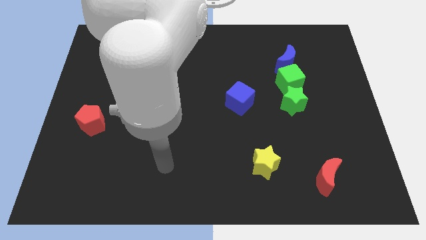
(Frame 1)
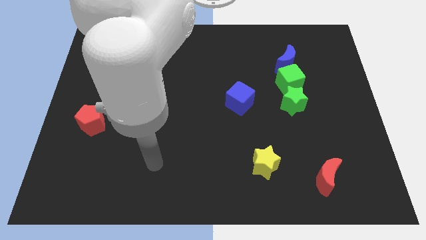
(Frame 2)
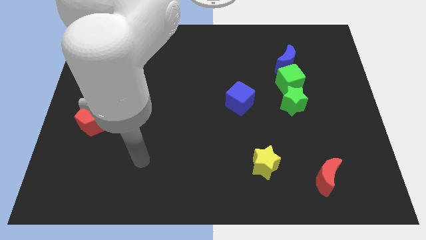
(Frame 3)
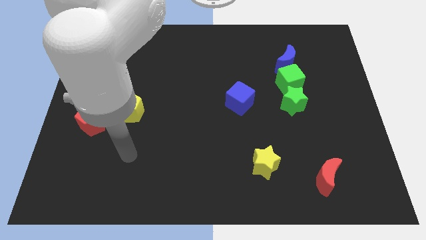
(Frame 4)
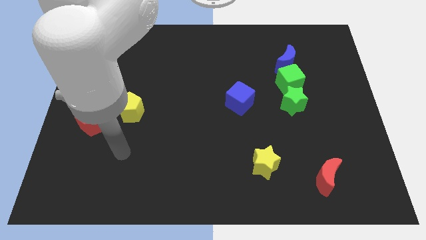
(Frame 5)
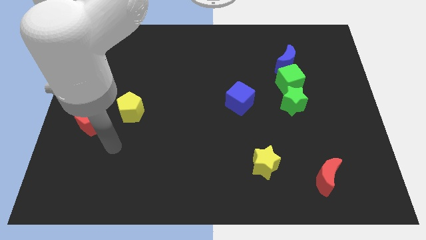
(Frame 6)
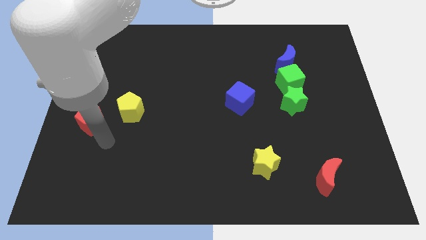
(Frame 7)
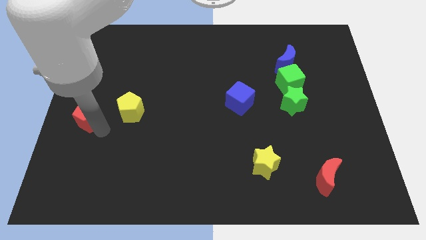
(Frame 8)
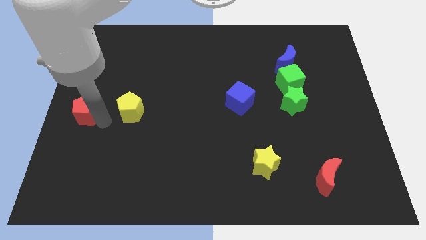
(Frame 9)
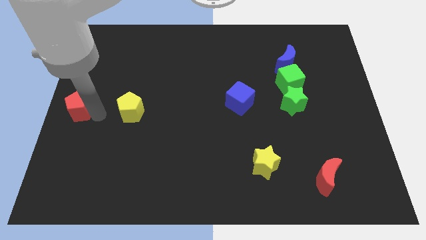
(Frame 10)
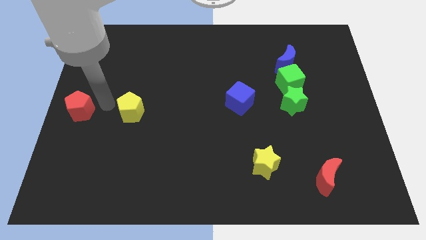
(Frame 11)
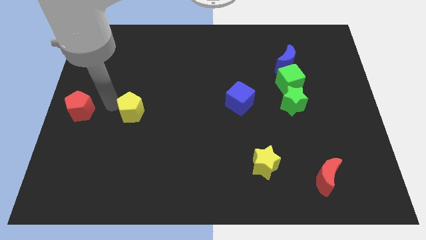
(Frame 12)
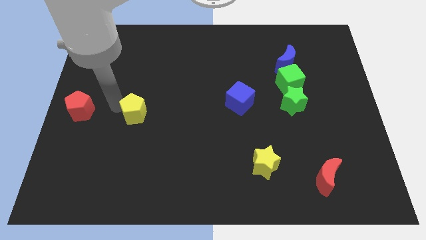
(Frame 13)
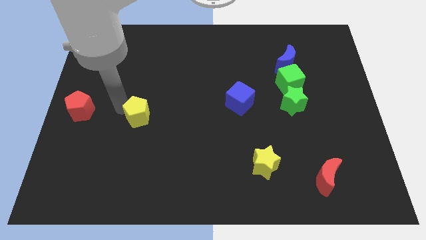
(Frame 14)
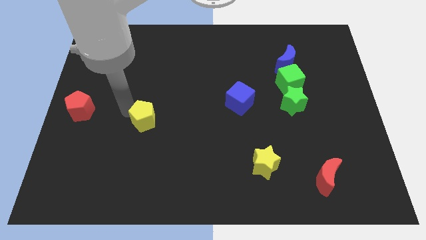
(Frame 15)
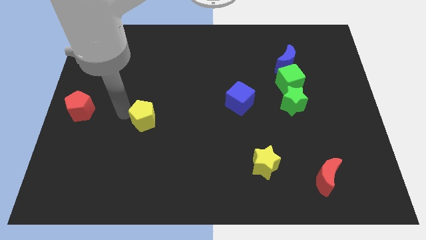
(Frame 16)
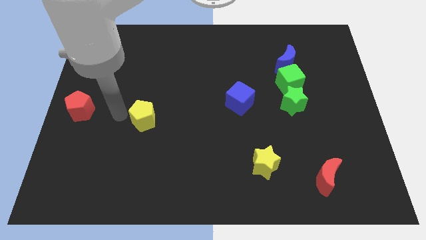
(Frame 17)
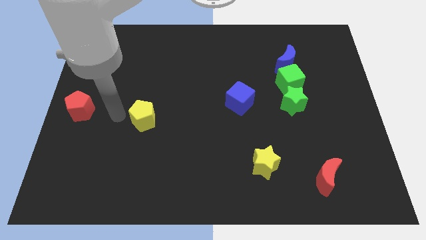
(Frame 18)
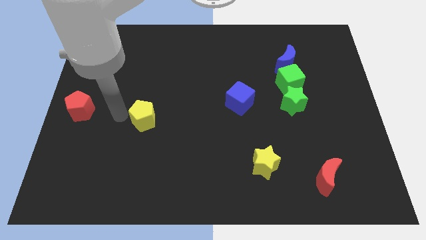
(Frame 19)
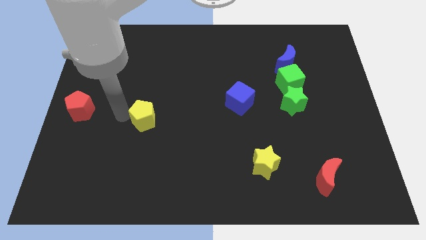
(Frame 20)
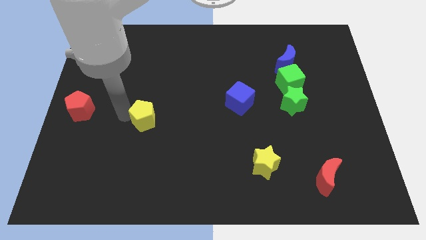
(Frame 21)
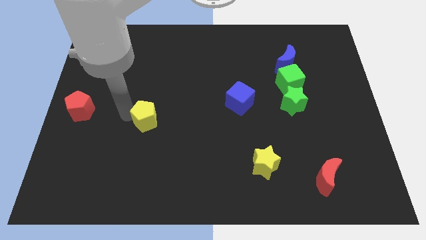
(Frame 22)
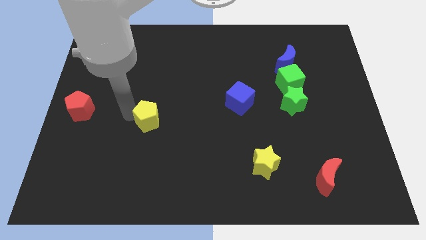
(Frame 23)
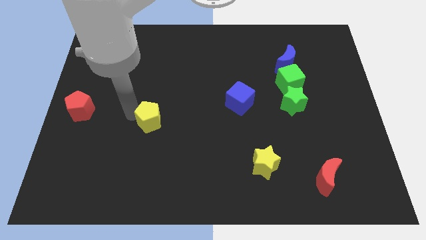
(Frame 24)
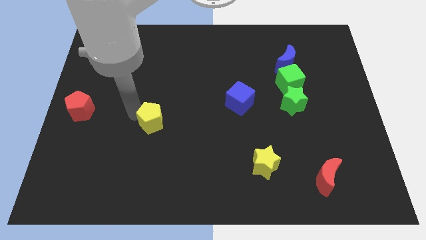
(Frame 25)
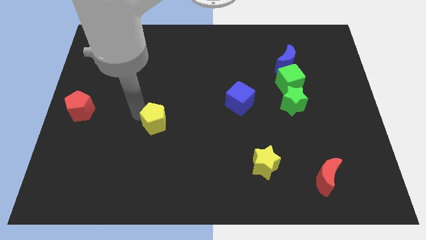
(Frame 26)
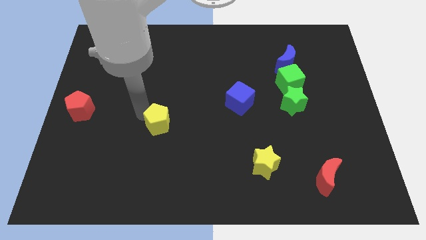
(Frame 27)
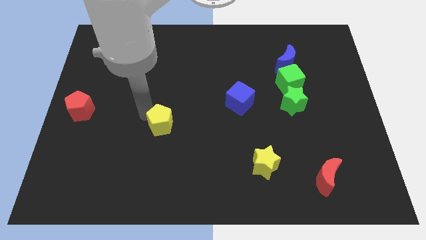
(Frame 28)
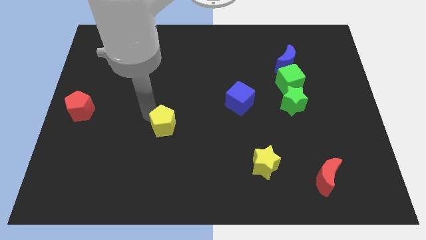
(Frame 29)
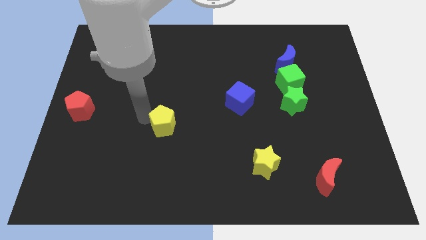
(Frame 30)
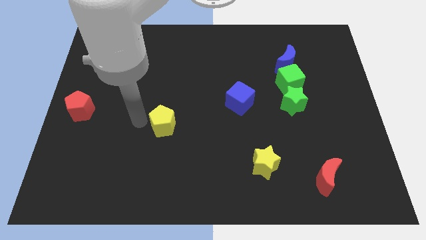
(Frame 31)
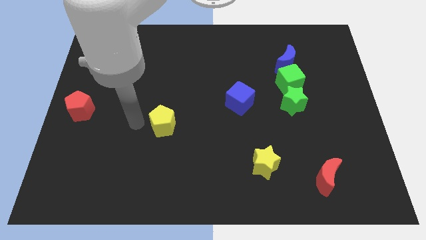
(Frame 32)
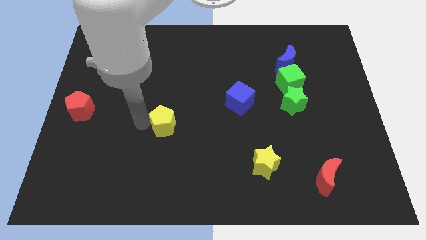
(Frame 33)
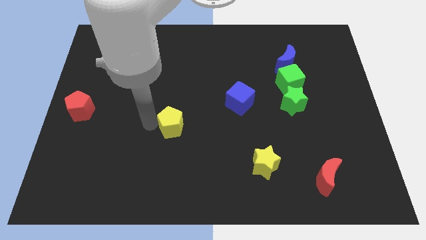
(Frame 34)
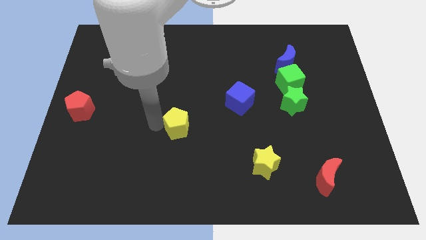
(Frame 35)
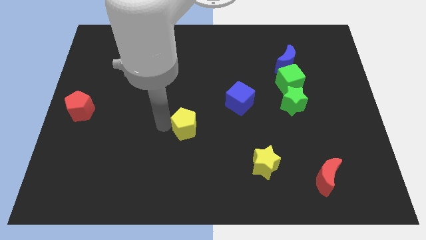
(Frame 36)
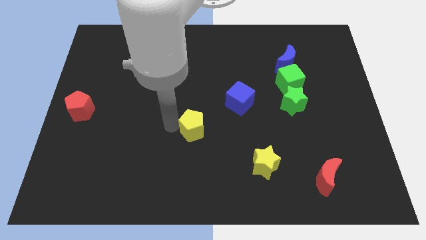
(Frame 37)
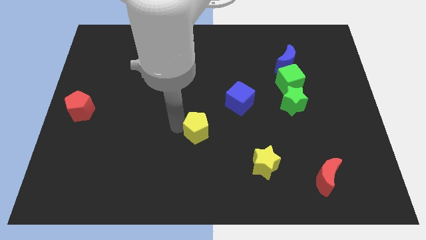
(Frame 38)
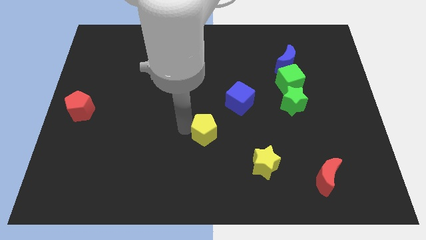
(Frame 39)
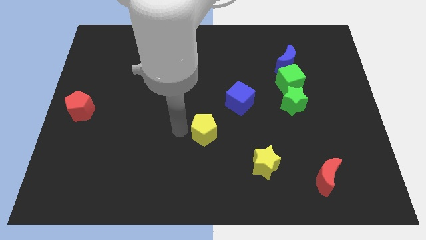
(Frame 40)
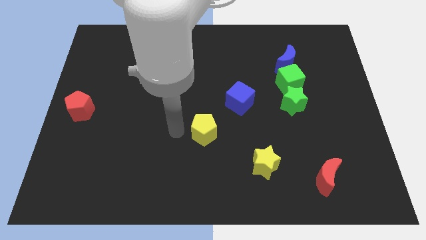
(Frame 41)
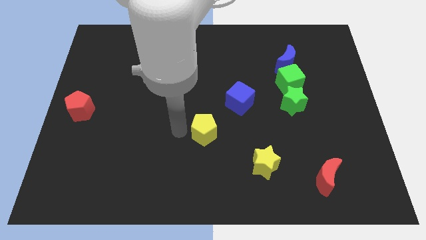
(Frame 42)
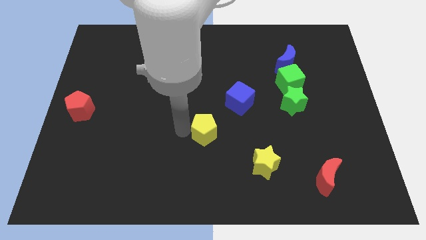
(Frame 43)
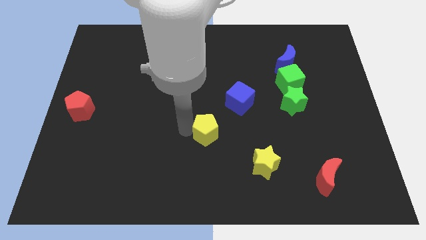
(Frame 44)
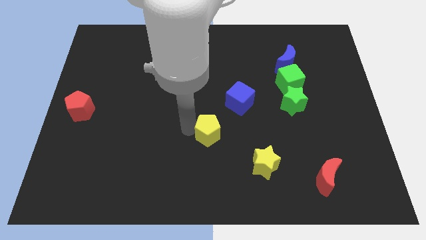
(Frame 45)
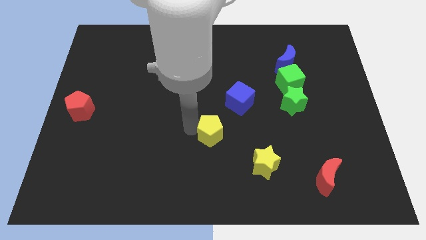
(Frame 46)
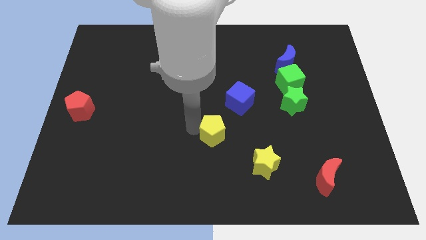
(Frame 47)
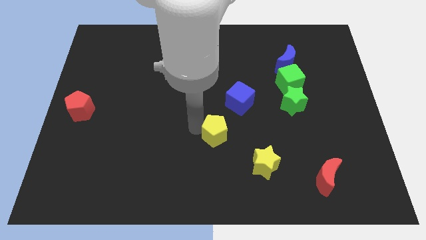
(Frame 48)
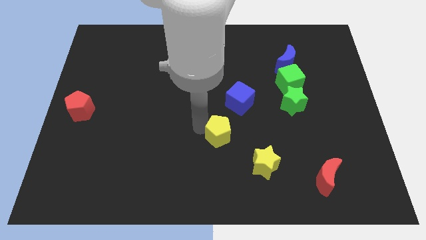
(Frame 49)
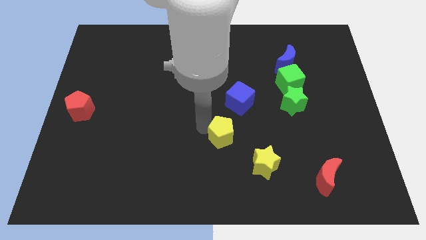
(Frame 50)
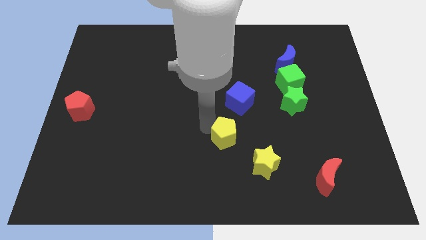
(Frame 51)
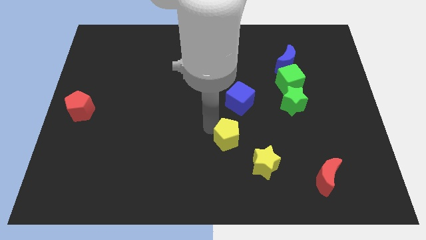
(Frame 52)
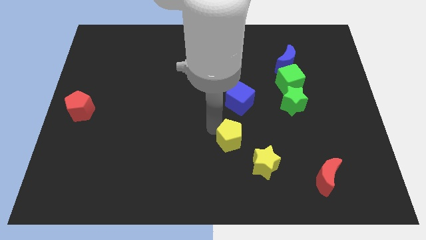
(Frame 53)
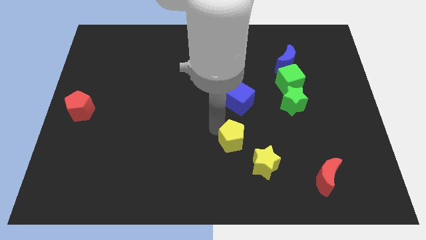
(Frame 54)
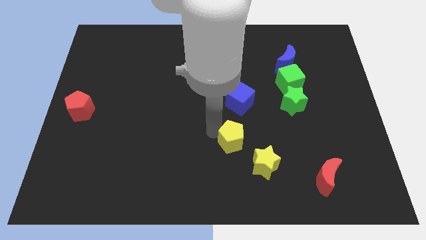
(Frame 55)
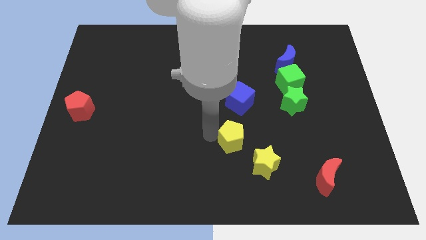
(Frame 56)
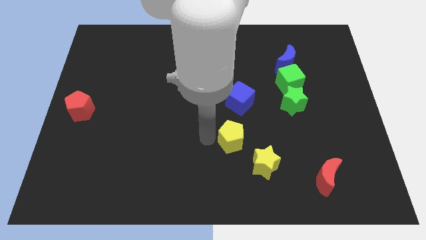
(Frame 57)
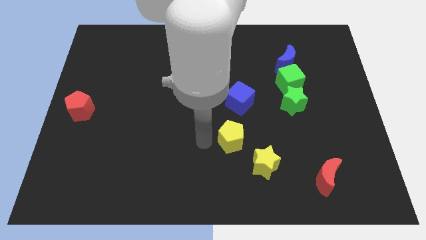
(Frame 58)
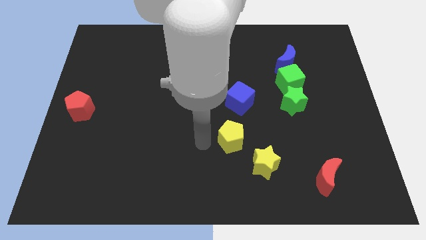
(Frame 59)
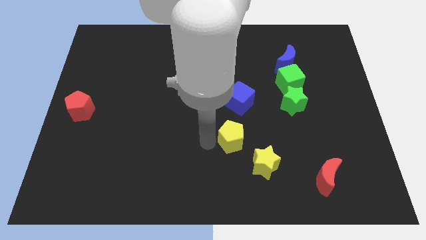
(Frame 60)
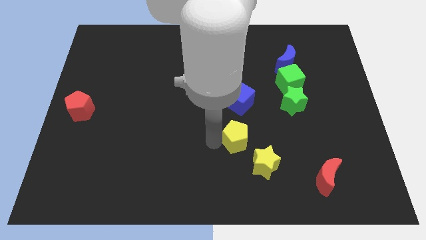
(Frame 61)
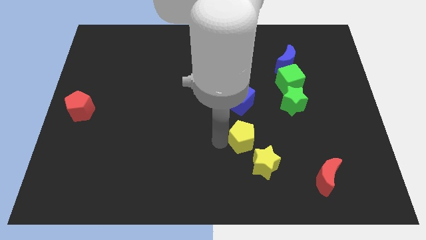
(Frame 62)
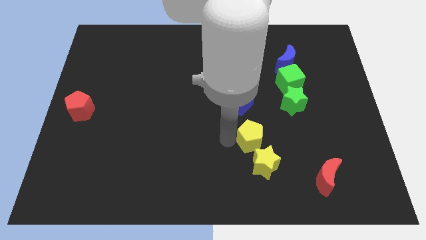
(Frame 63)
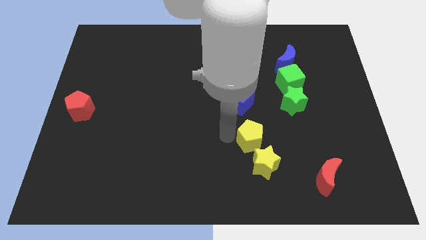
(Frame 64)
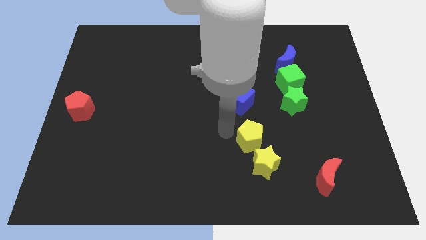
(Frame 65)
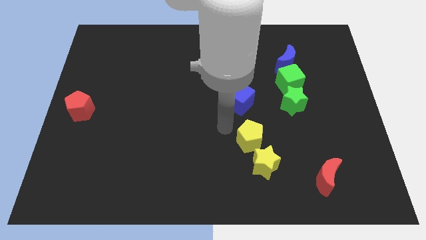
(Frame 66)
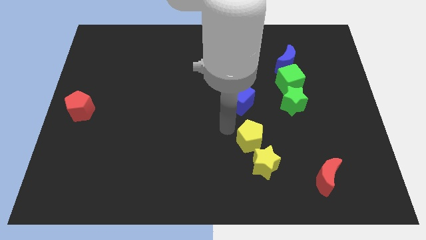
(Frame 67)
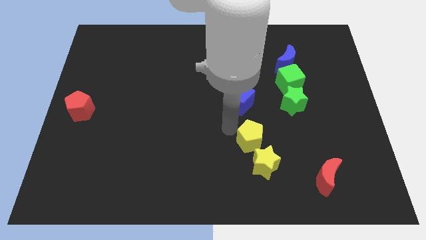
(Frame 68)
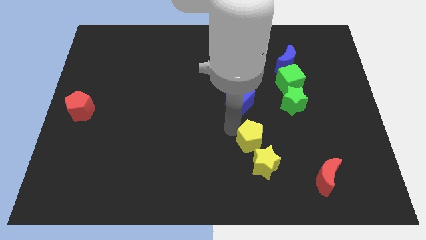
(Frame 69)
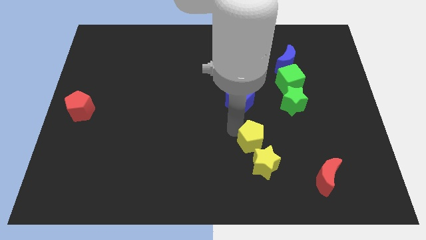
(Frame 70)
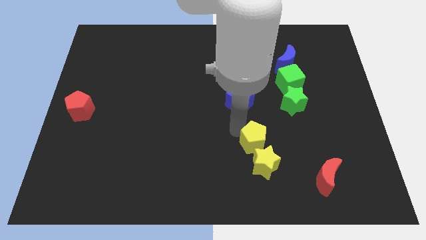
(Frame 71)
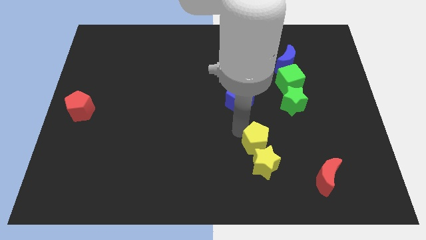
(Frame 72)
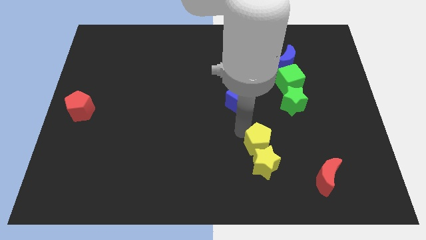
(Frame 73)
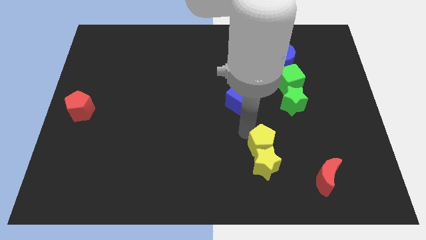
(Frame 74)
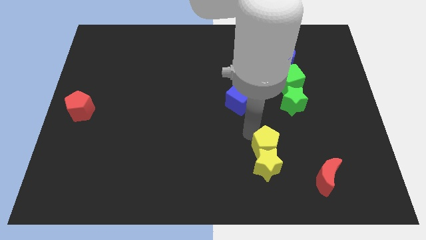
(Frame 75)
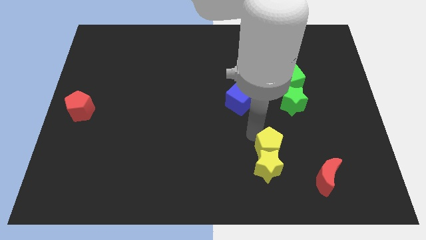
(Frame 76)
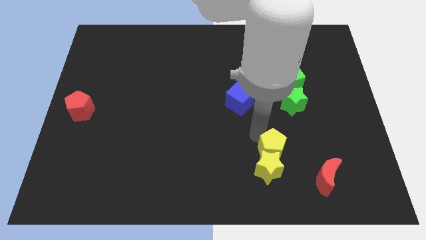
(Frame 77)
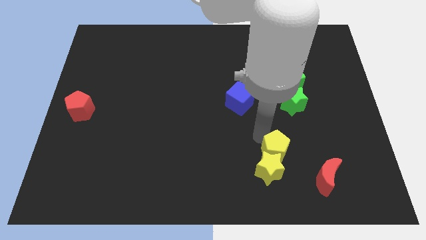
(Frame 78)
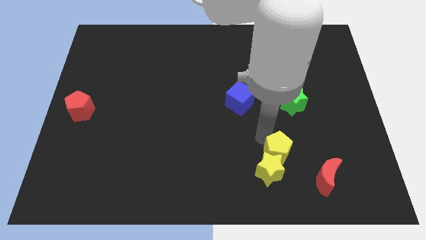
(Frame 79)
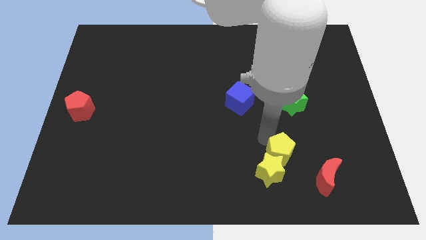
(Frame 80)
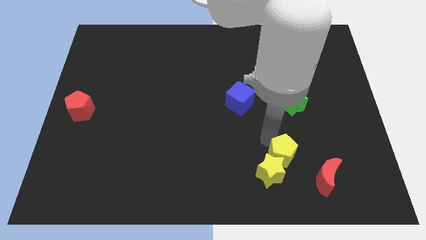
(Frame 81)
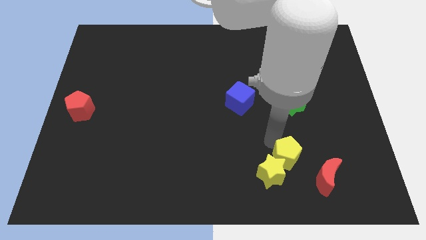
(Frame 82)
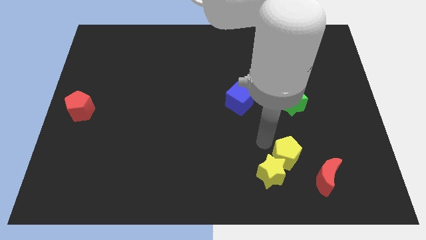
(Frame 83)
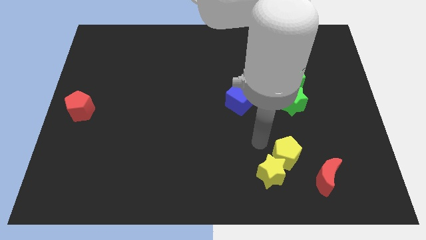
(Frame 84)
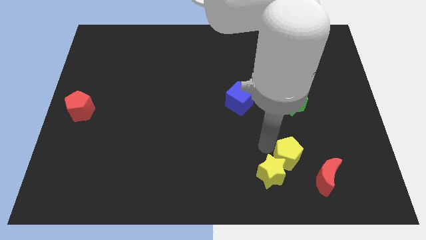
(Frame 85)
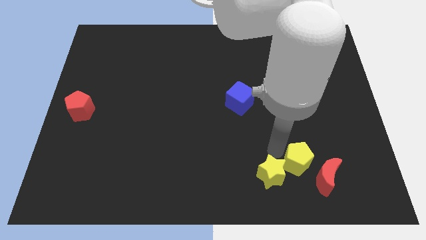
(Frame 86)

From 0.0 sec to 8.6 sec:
push the yellow pentagon to the red moon
